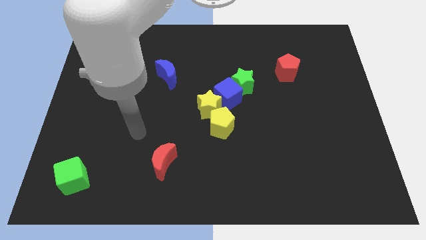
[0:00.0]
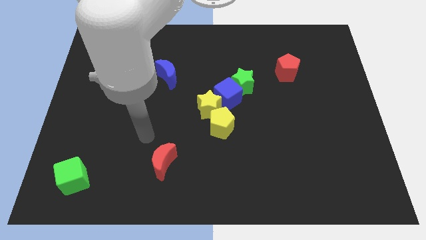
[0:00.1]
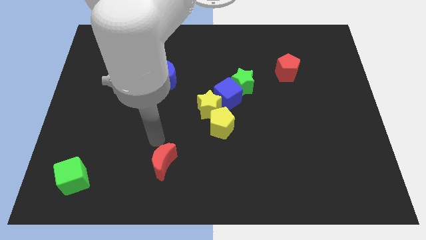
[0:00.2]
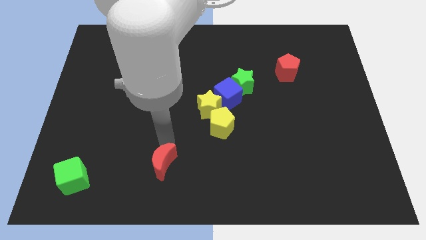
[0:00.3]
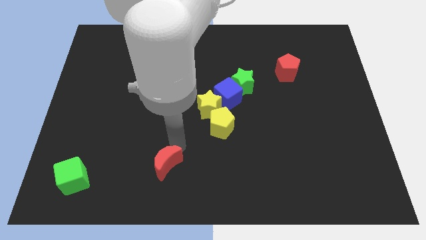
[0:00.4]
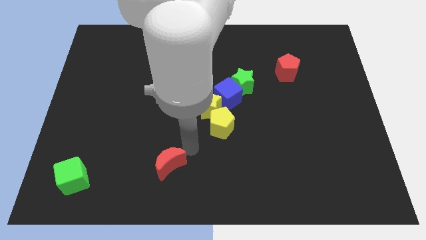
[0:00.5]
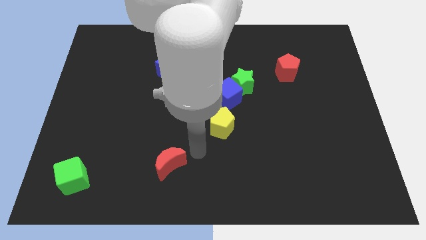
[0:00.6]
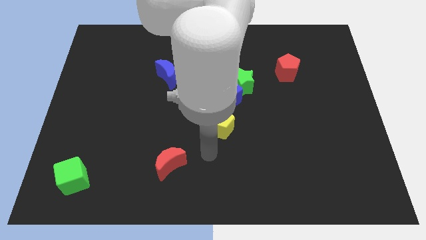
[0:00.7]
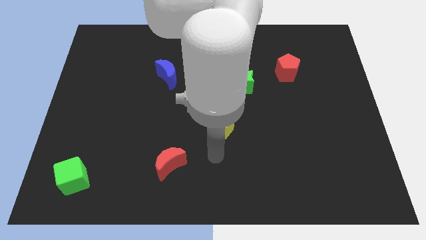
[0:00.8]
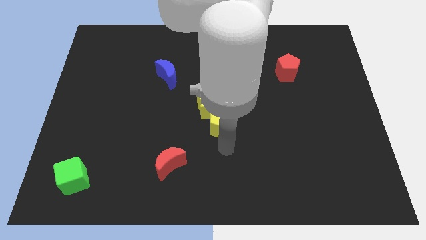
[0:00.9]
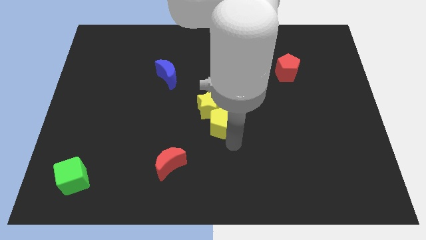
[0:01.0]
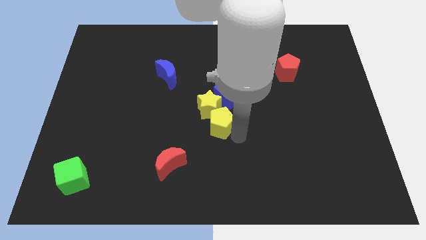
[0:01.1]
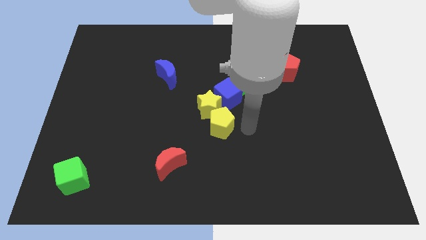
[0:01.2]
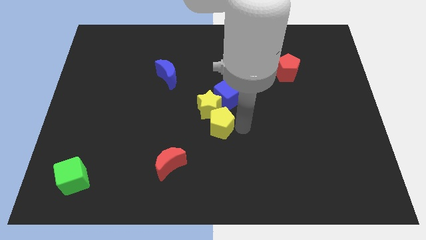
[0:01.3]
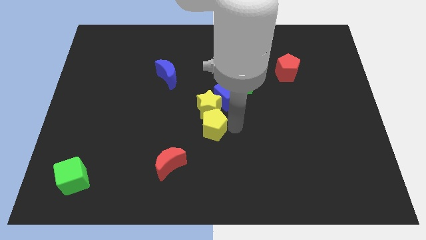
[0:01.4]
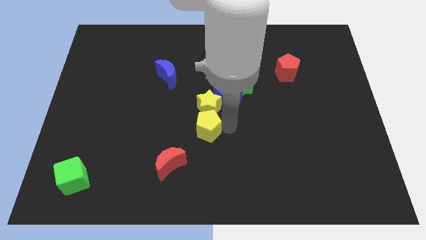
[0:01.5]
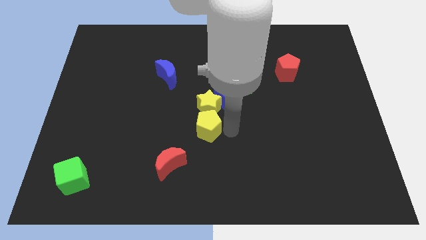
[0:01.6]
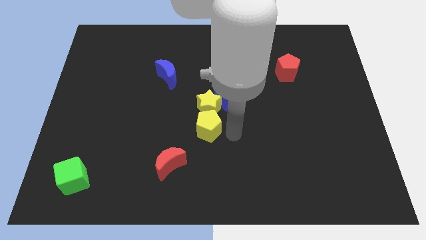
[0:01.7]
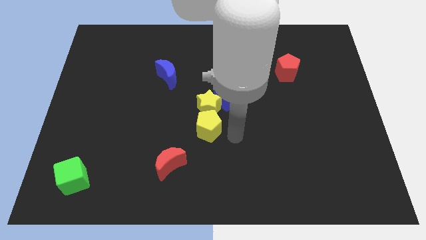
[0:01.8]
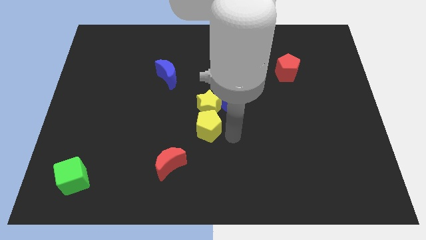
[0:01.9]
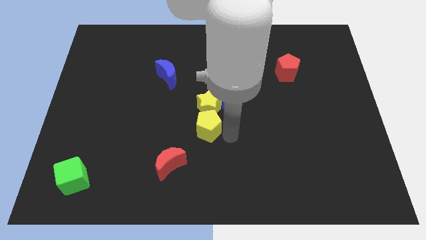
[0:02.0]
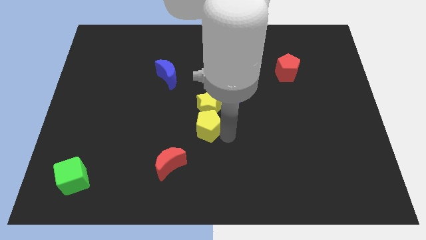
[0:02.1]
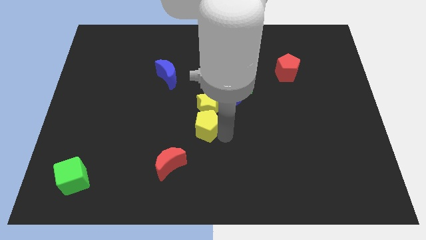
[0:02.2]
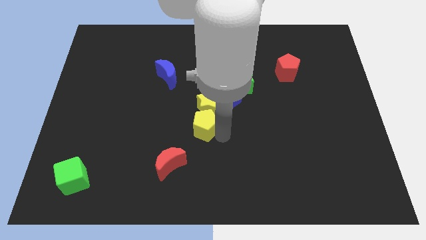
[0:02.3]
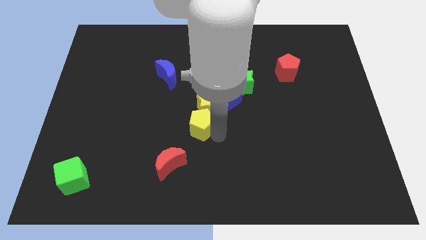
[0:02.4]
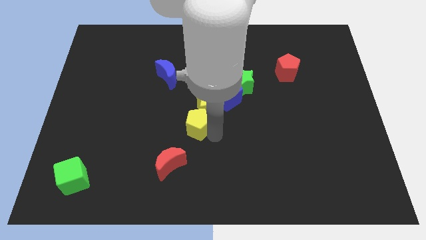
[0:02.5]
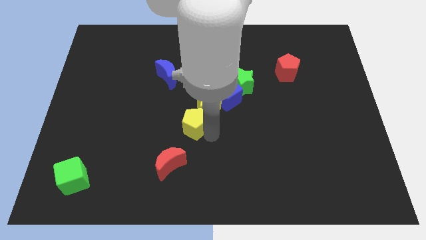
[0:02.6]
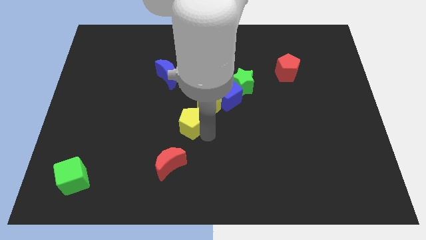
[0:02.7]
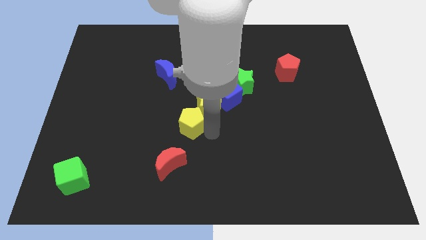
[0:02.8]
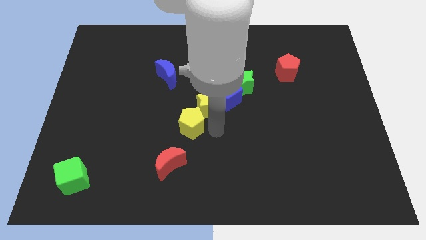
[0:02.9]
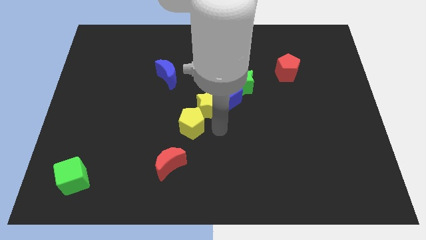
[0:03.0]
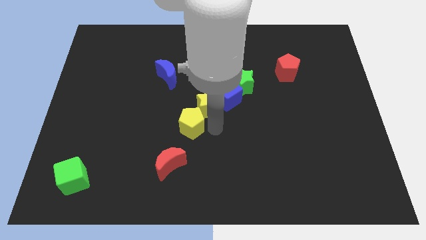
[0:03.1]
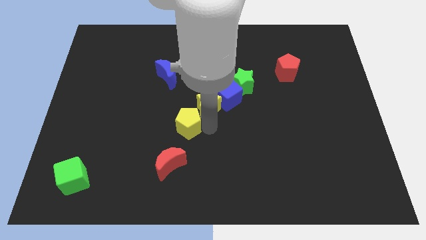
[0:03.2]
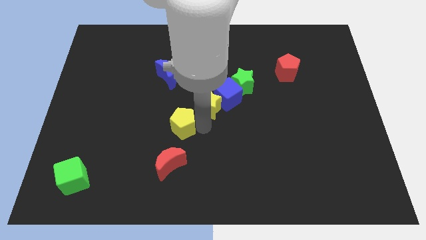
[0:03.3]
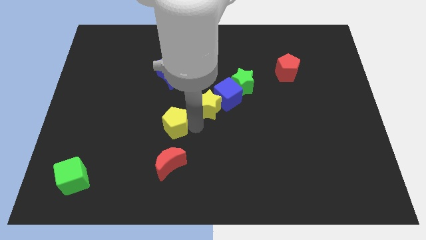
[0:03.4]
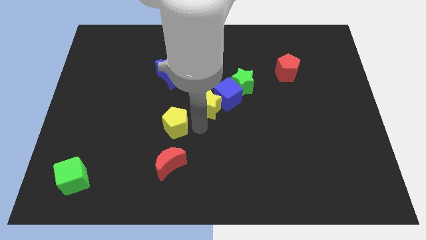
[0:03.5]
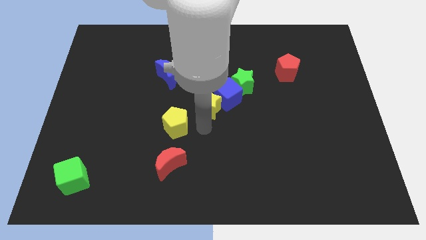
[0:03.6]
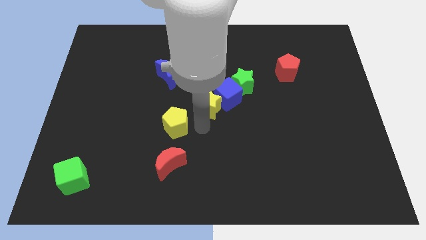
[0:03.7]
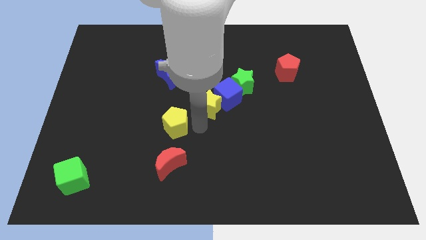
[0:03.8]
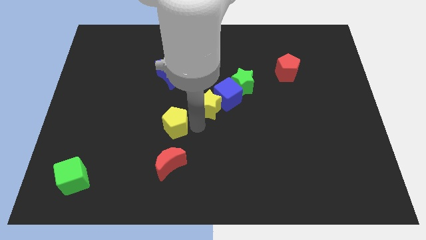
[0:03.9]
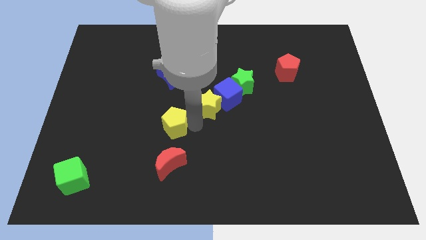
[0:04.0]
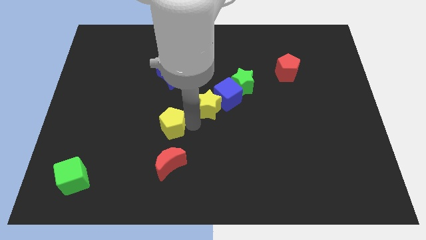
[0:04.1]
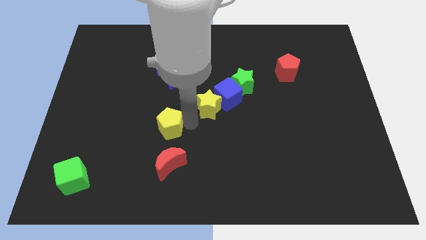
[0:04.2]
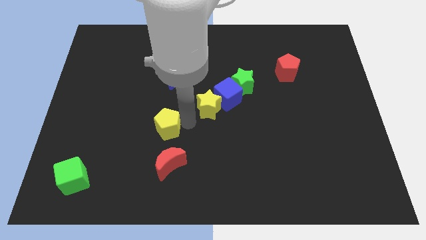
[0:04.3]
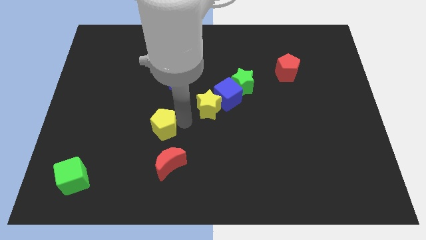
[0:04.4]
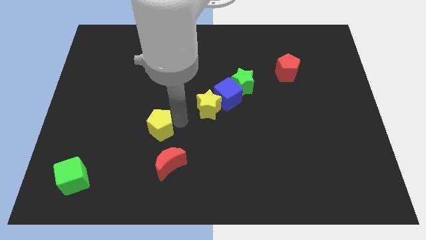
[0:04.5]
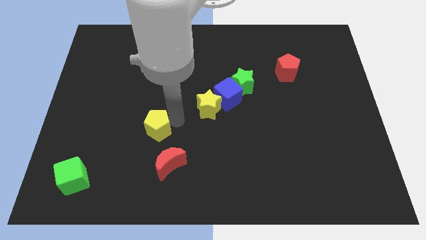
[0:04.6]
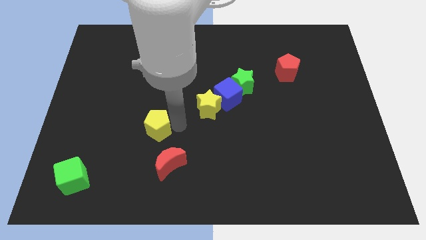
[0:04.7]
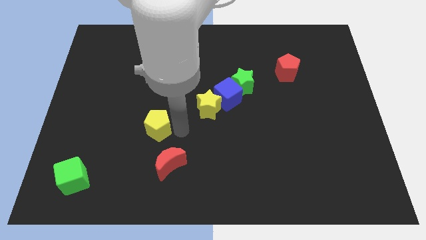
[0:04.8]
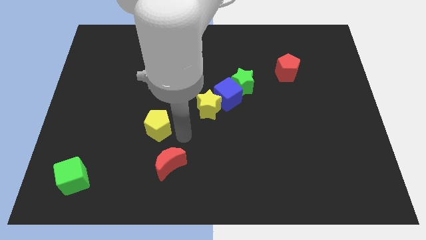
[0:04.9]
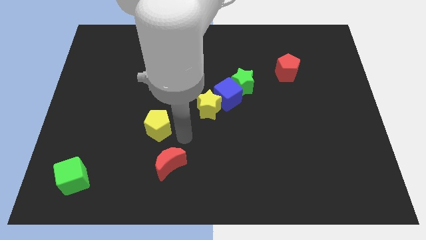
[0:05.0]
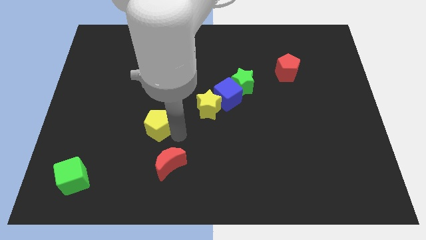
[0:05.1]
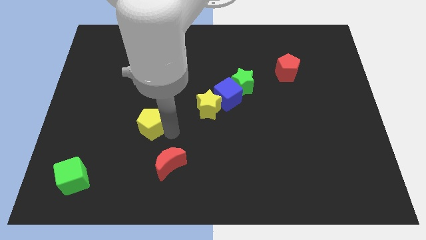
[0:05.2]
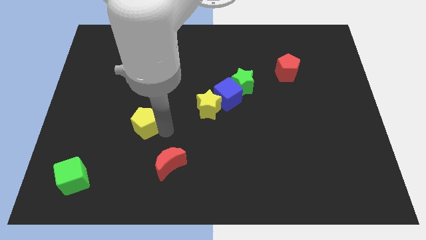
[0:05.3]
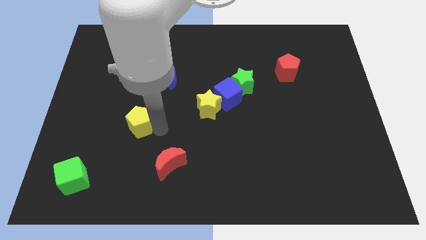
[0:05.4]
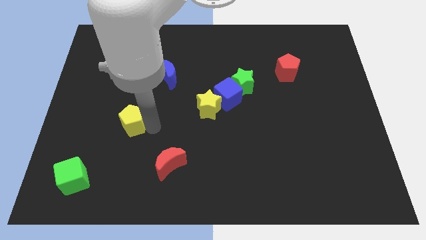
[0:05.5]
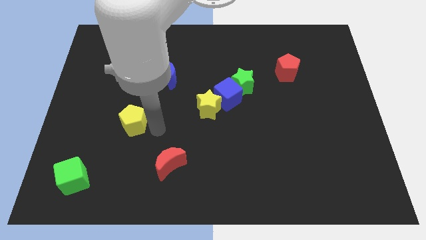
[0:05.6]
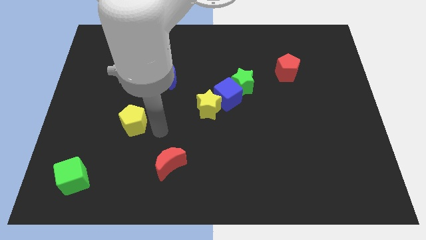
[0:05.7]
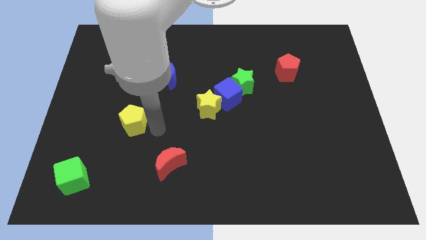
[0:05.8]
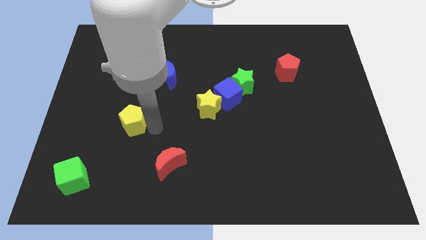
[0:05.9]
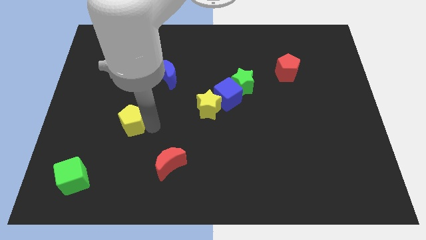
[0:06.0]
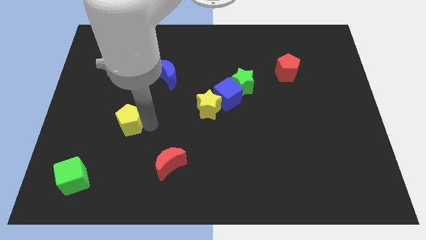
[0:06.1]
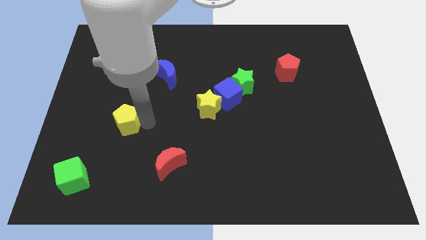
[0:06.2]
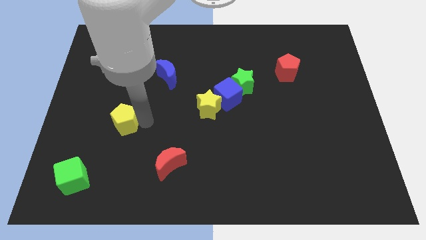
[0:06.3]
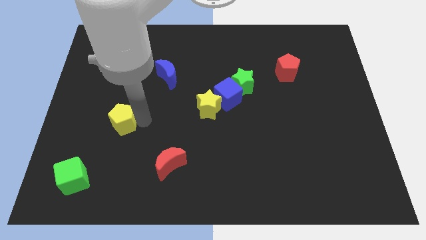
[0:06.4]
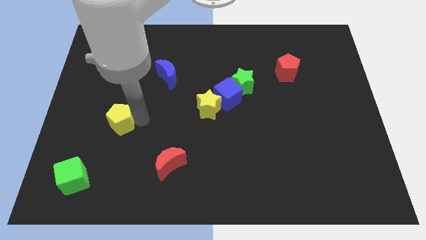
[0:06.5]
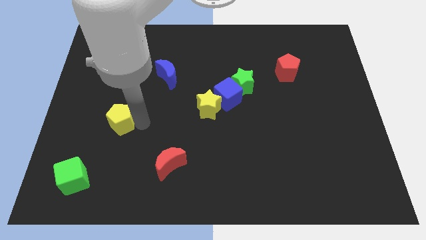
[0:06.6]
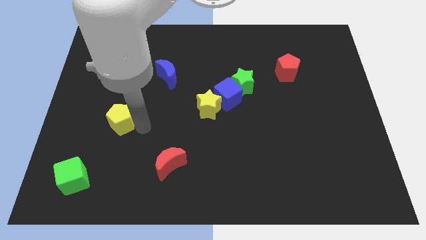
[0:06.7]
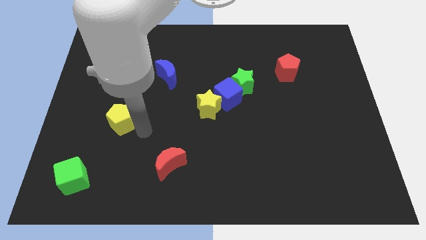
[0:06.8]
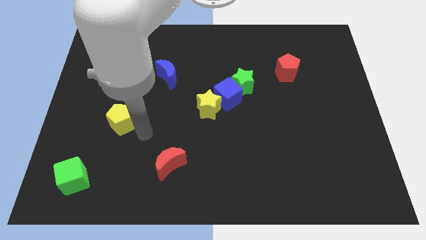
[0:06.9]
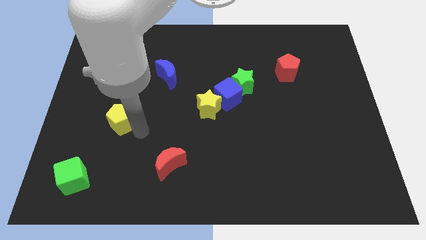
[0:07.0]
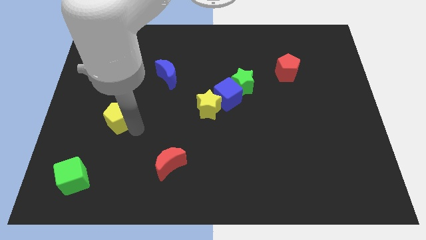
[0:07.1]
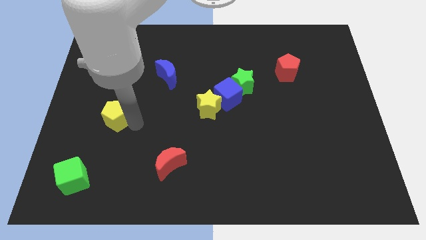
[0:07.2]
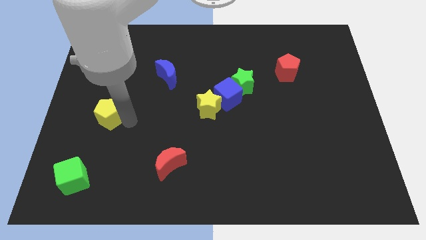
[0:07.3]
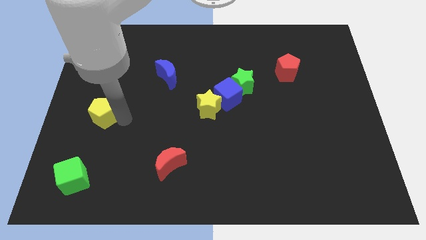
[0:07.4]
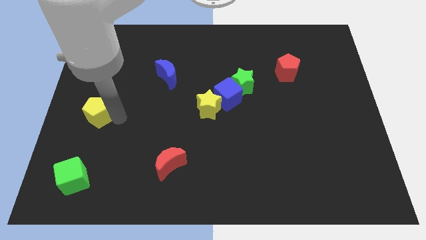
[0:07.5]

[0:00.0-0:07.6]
slide the yellow pentagon to the left side
